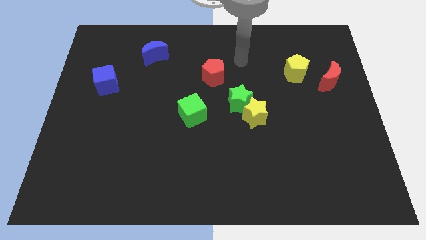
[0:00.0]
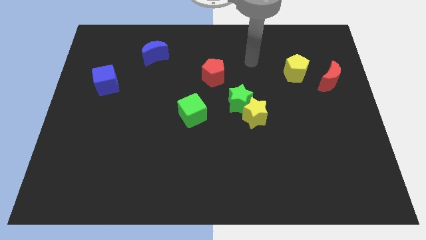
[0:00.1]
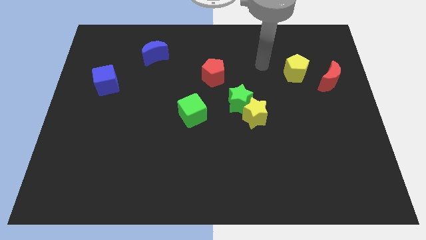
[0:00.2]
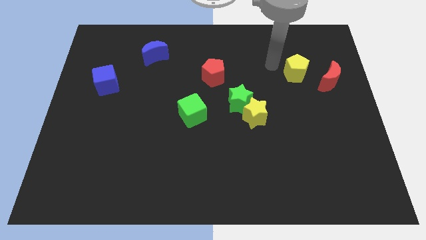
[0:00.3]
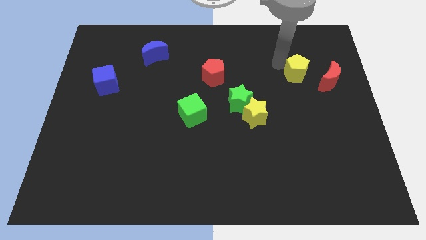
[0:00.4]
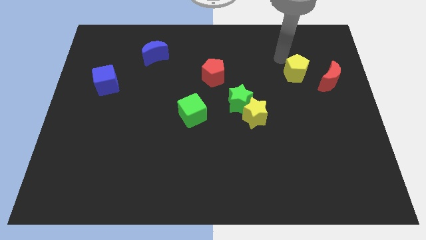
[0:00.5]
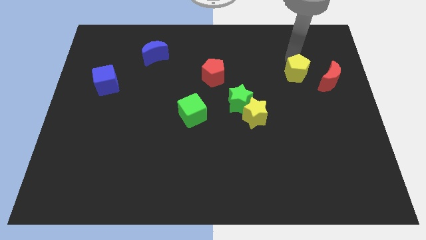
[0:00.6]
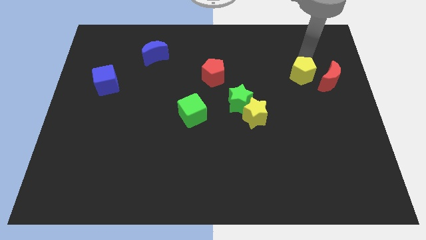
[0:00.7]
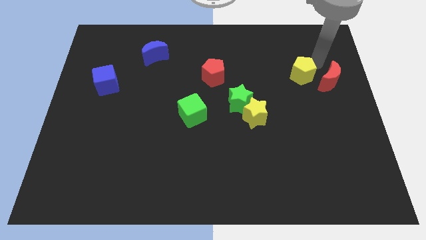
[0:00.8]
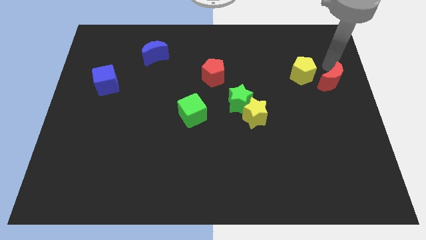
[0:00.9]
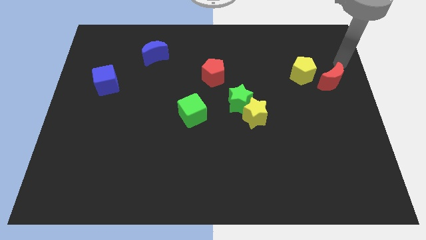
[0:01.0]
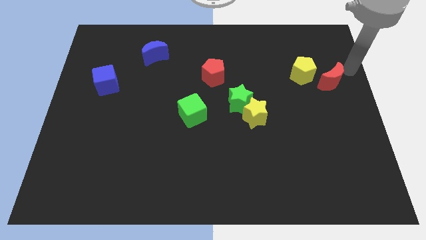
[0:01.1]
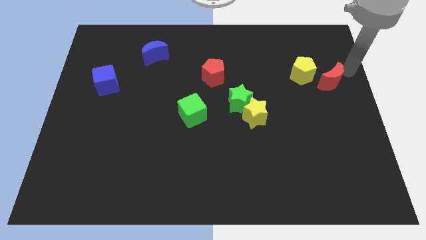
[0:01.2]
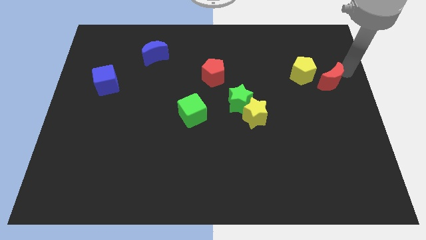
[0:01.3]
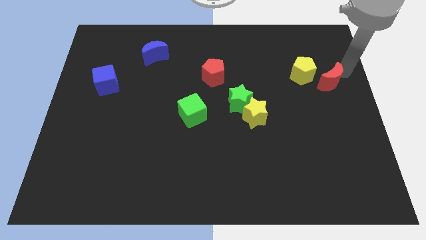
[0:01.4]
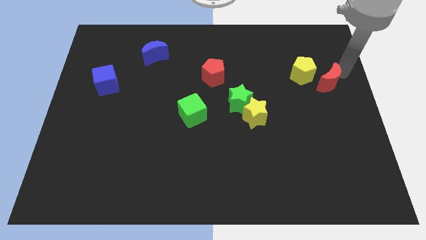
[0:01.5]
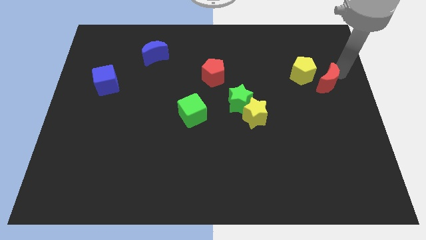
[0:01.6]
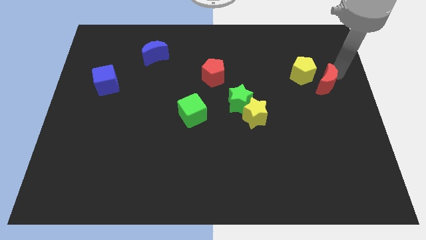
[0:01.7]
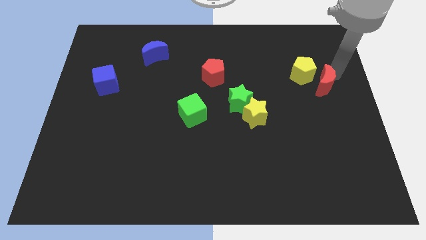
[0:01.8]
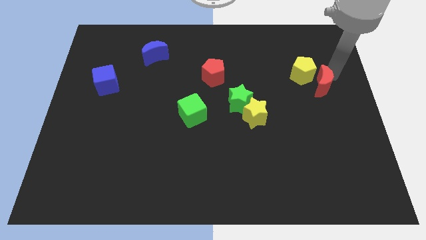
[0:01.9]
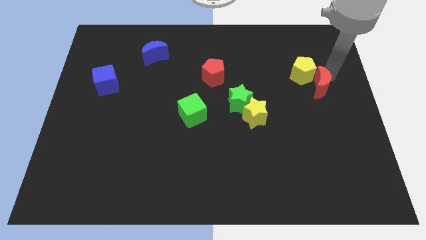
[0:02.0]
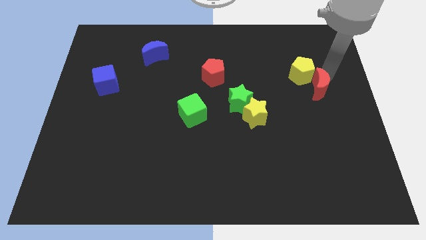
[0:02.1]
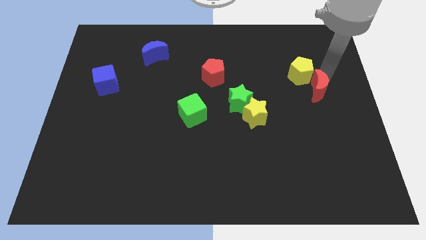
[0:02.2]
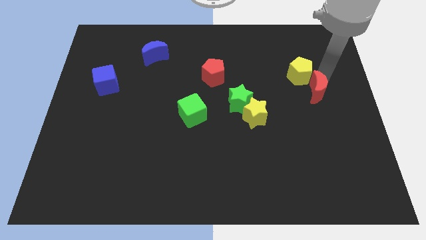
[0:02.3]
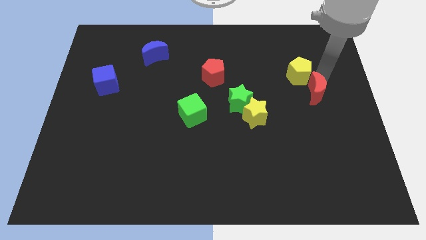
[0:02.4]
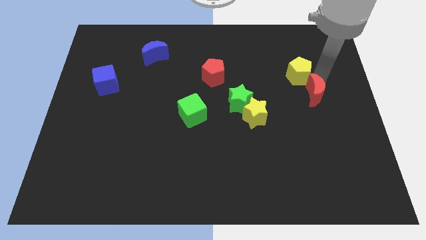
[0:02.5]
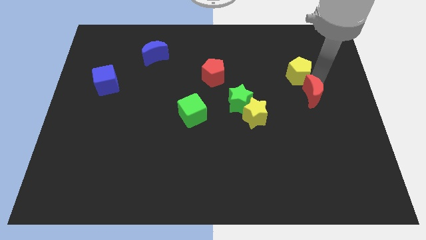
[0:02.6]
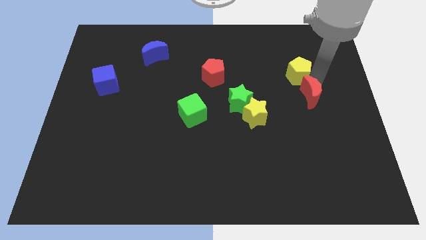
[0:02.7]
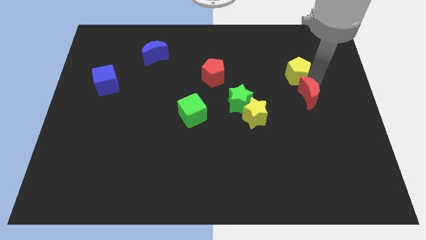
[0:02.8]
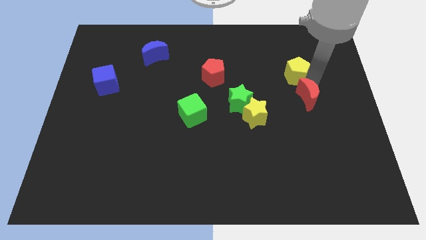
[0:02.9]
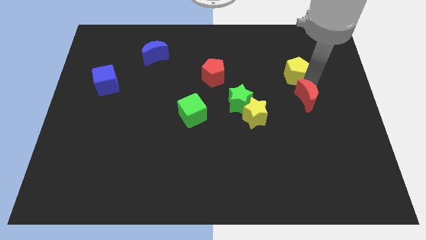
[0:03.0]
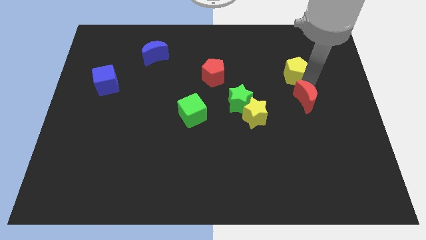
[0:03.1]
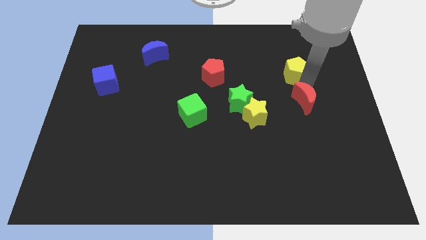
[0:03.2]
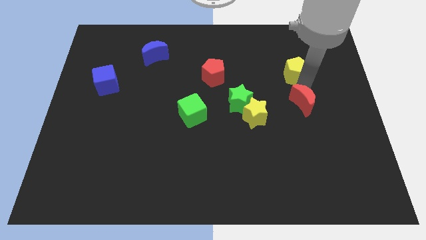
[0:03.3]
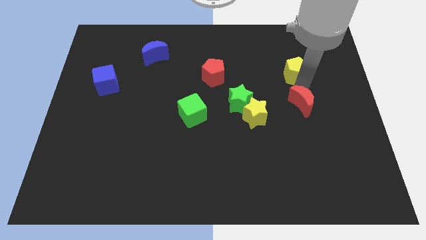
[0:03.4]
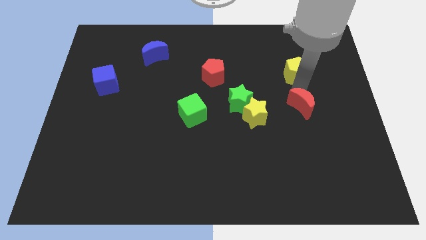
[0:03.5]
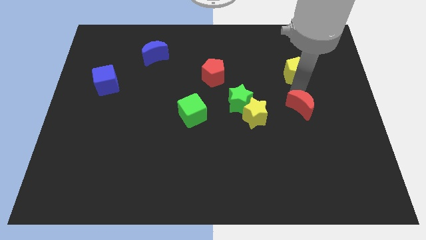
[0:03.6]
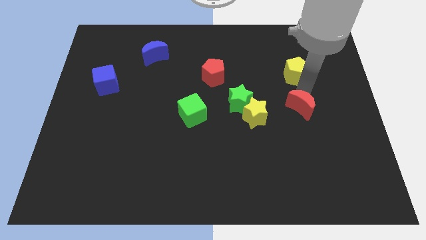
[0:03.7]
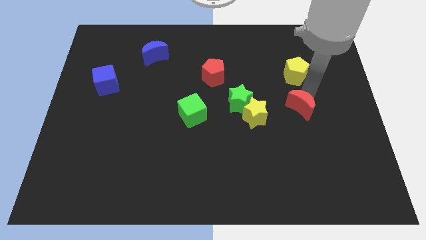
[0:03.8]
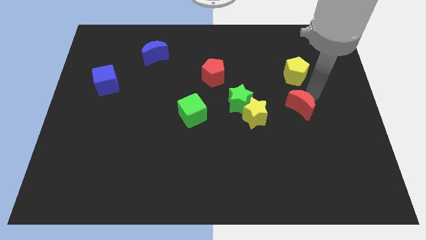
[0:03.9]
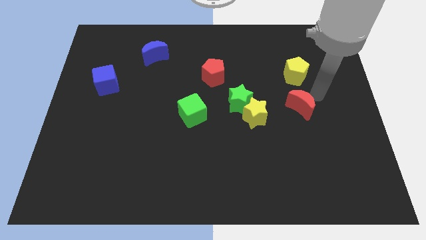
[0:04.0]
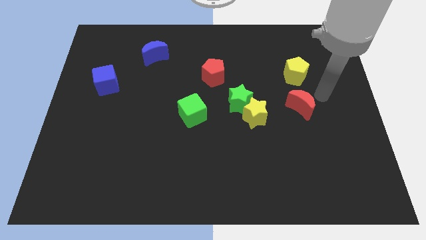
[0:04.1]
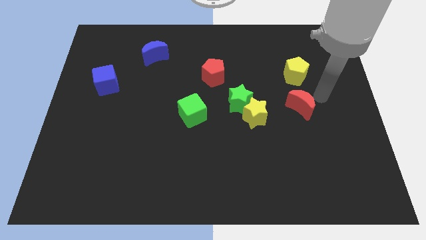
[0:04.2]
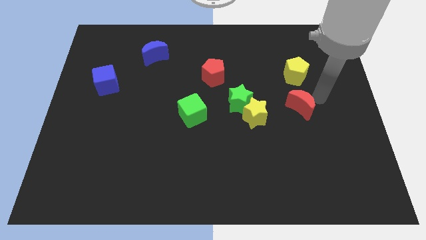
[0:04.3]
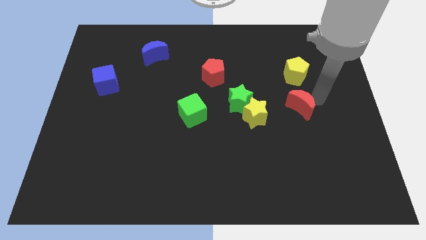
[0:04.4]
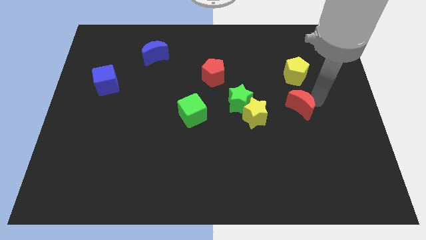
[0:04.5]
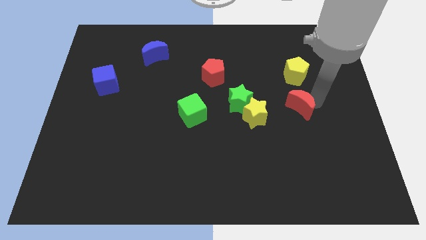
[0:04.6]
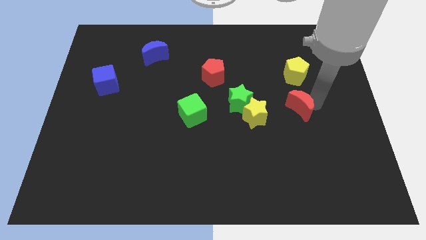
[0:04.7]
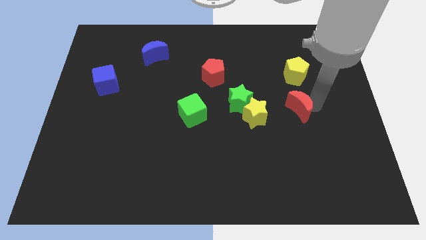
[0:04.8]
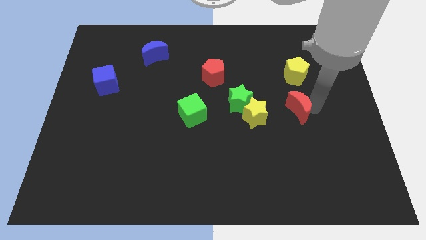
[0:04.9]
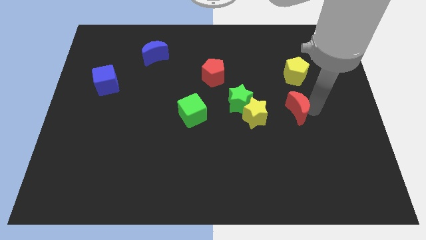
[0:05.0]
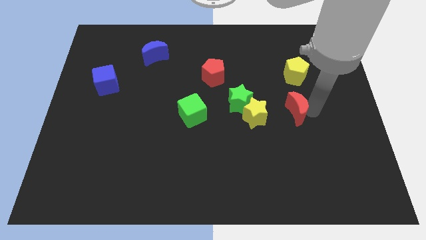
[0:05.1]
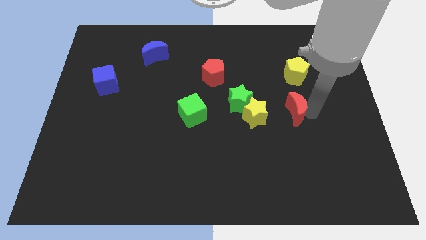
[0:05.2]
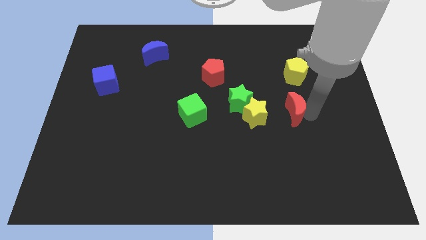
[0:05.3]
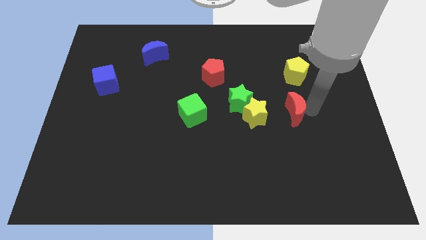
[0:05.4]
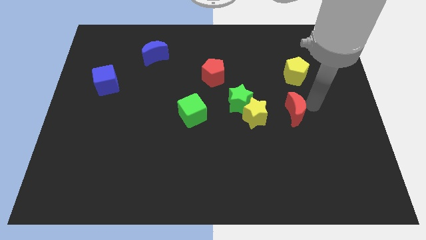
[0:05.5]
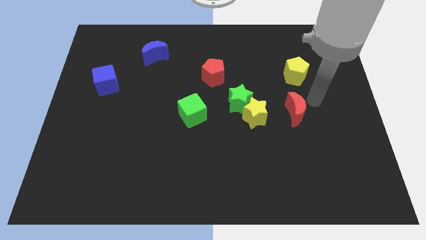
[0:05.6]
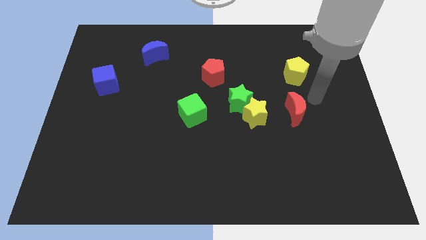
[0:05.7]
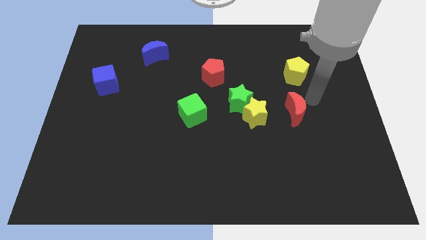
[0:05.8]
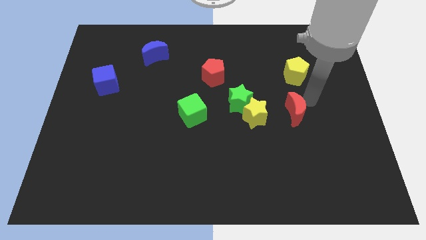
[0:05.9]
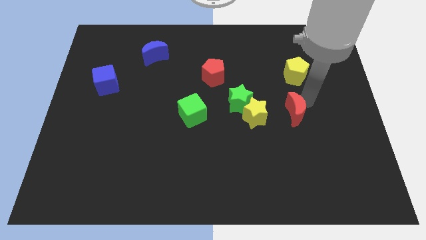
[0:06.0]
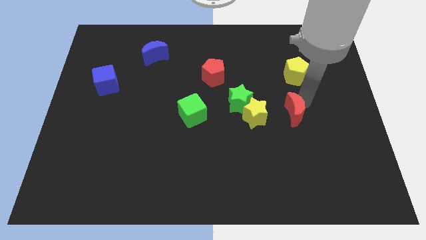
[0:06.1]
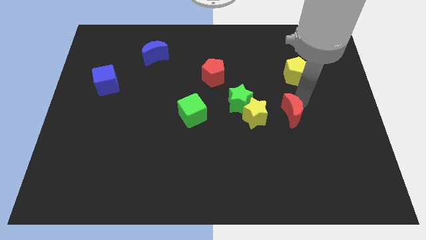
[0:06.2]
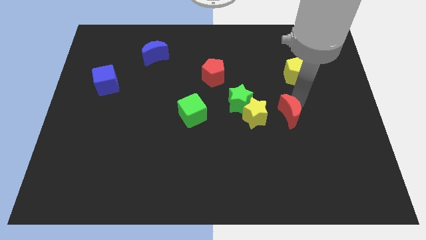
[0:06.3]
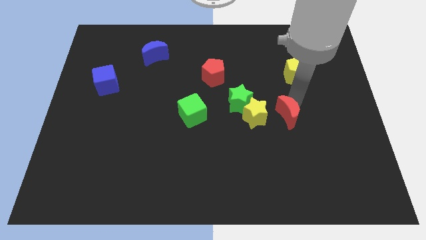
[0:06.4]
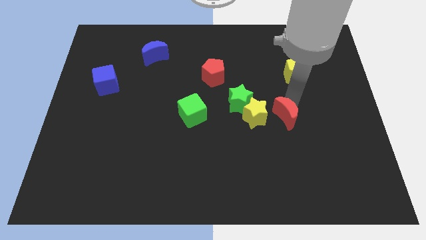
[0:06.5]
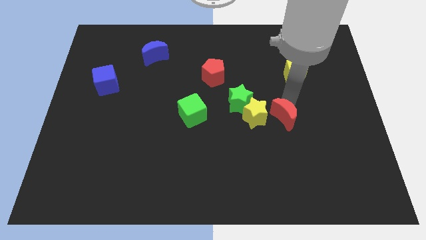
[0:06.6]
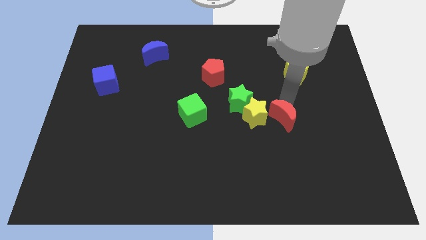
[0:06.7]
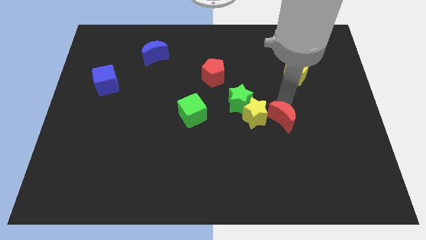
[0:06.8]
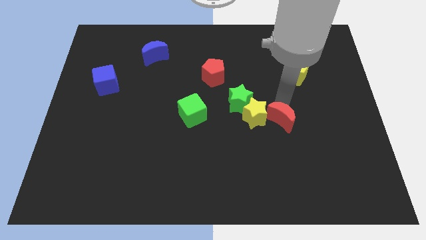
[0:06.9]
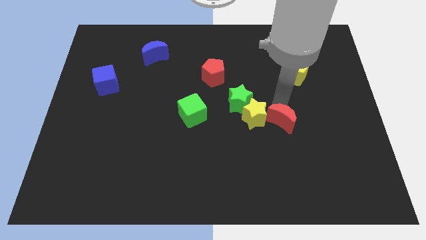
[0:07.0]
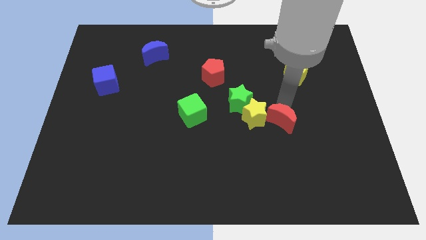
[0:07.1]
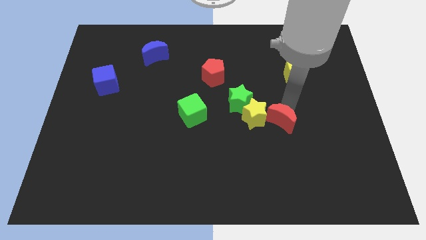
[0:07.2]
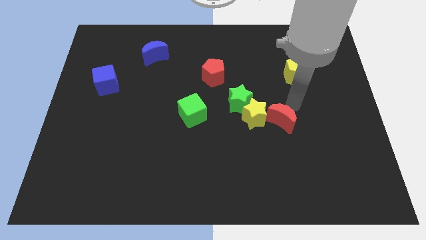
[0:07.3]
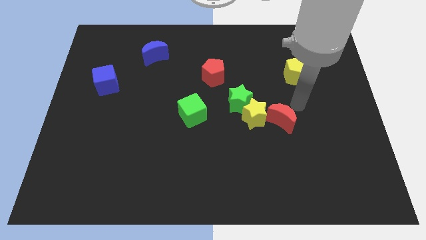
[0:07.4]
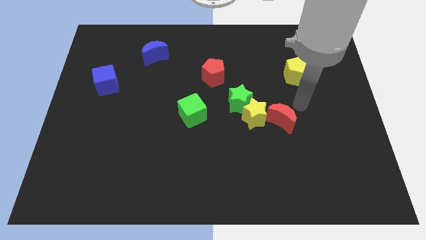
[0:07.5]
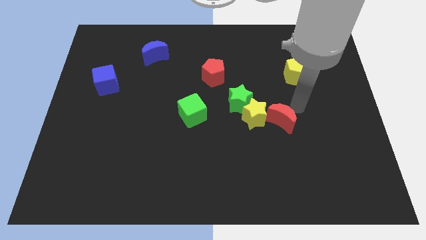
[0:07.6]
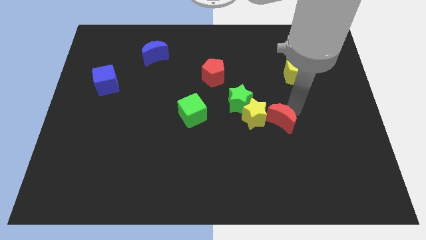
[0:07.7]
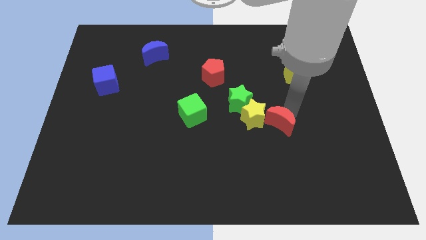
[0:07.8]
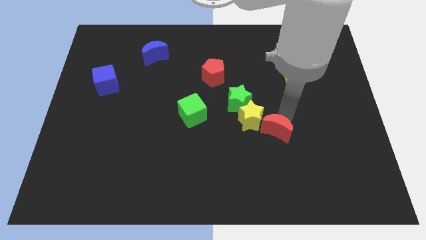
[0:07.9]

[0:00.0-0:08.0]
push the red moon down and to the left

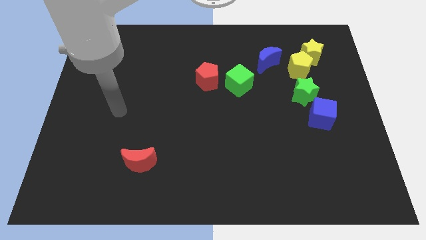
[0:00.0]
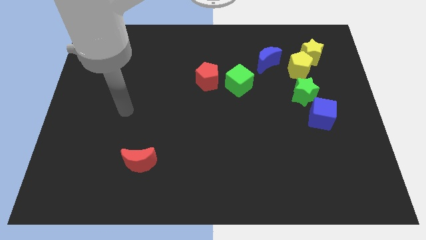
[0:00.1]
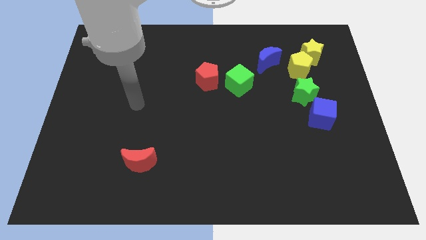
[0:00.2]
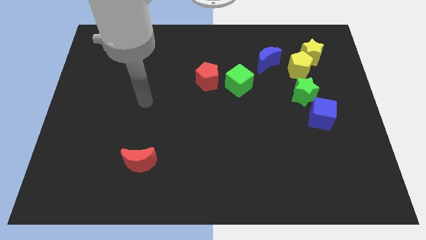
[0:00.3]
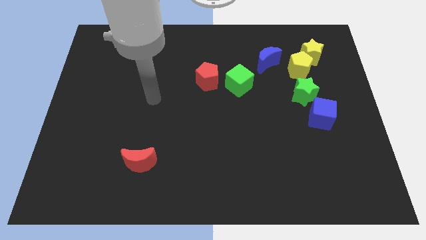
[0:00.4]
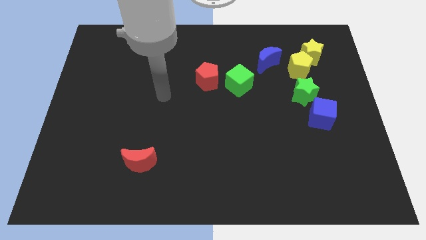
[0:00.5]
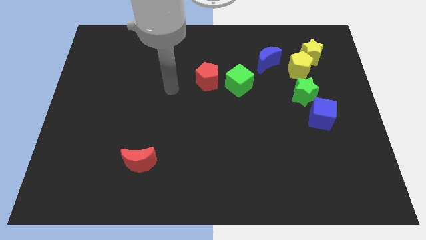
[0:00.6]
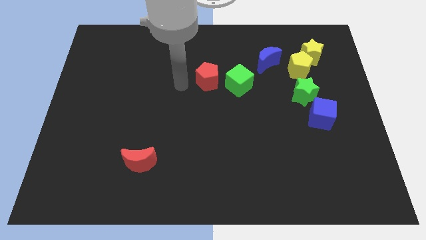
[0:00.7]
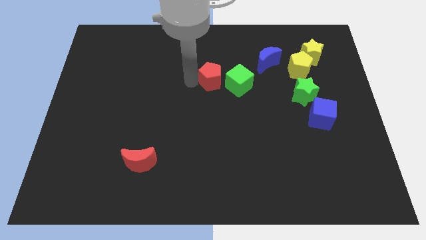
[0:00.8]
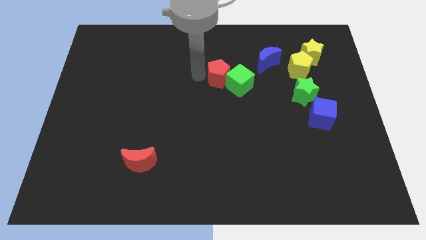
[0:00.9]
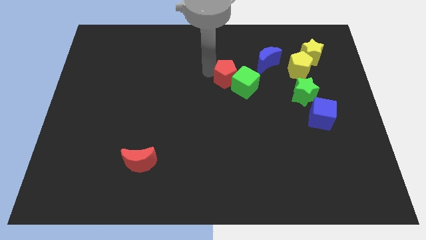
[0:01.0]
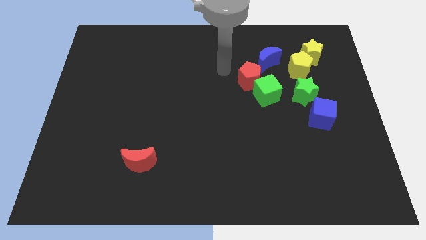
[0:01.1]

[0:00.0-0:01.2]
move the green cube downwards and to the right diagonally somewhat
